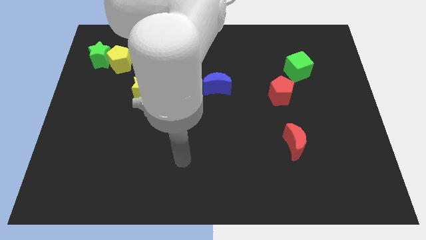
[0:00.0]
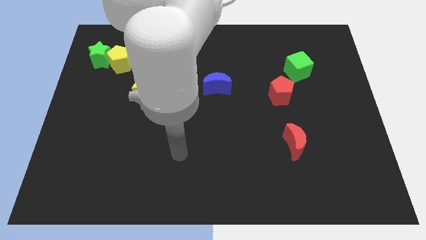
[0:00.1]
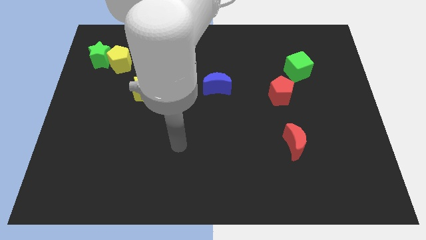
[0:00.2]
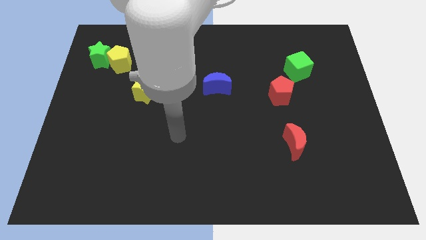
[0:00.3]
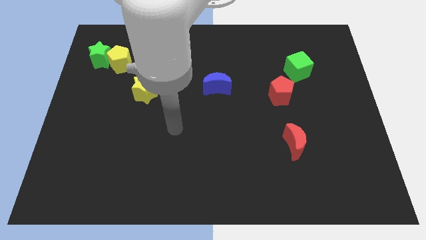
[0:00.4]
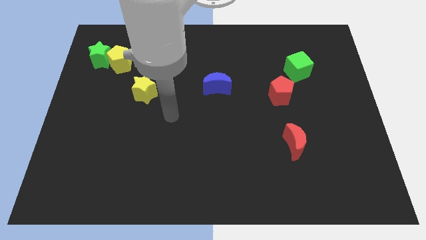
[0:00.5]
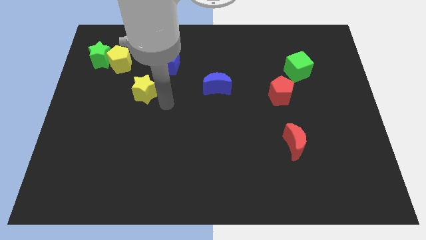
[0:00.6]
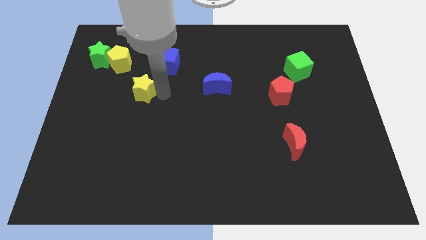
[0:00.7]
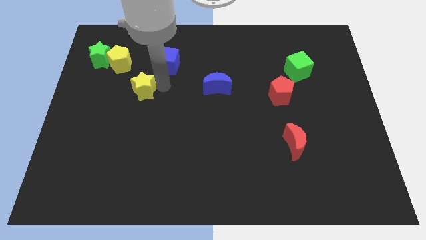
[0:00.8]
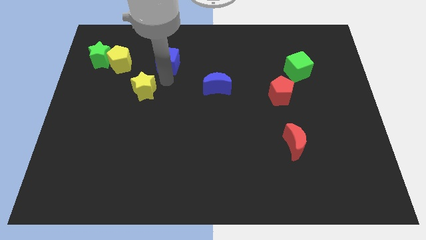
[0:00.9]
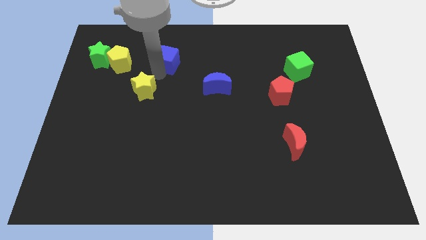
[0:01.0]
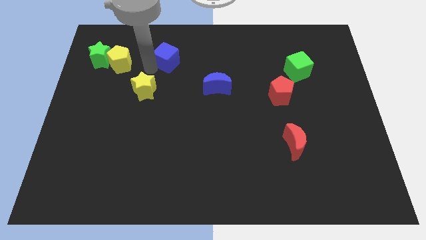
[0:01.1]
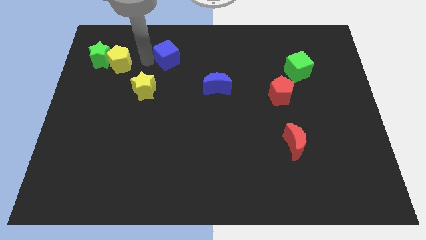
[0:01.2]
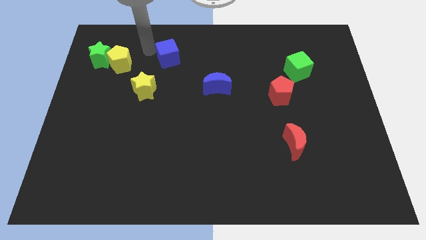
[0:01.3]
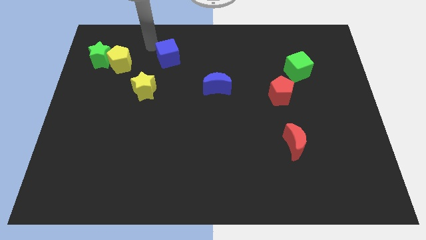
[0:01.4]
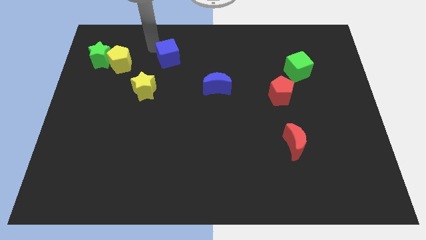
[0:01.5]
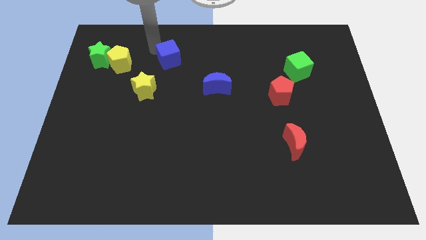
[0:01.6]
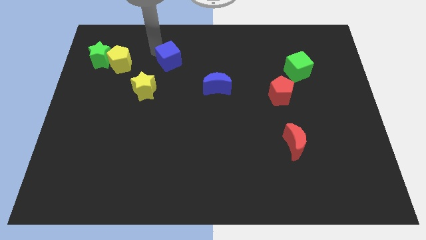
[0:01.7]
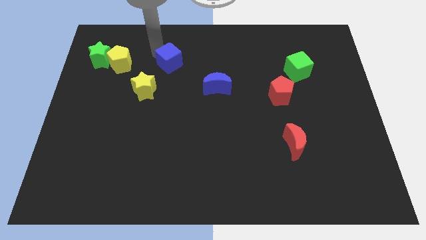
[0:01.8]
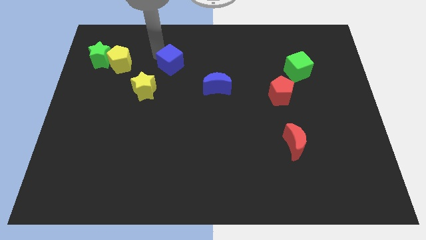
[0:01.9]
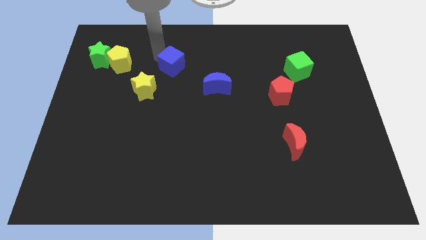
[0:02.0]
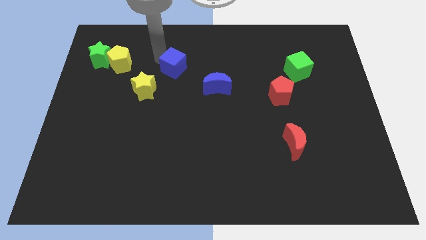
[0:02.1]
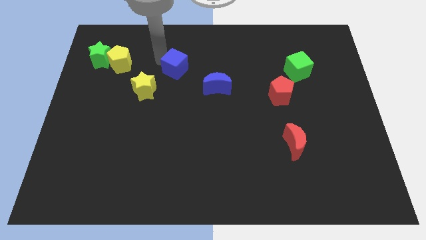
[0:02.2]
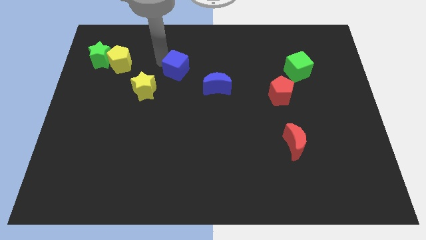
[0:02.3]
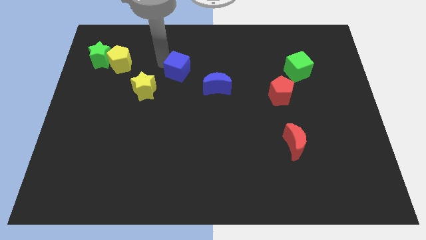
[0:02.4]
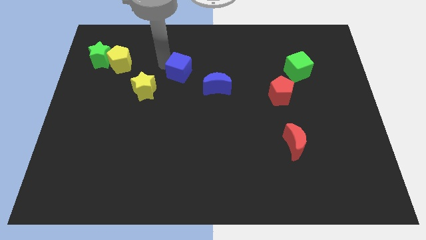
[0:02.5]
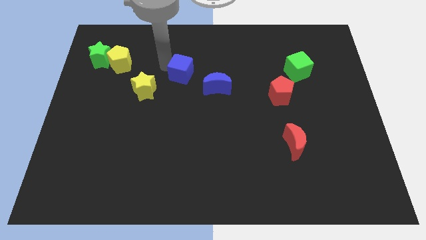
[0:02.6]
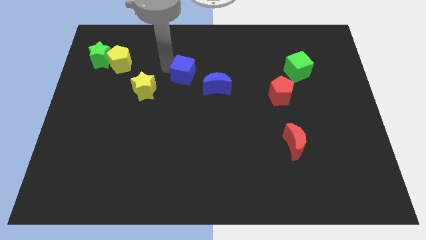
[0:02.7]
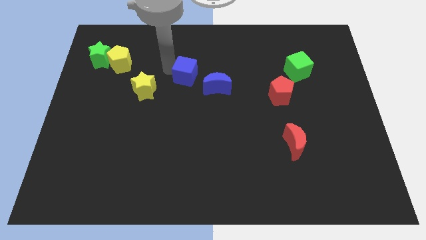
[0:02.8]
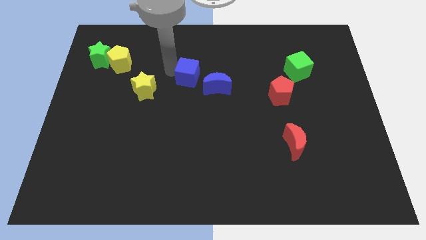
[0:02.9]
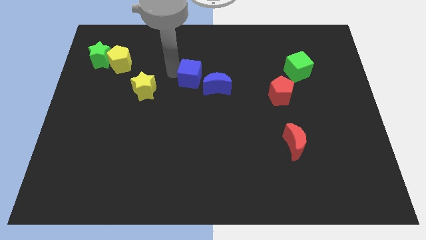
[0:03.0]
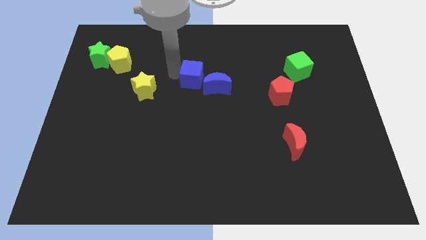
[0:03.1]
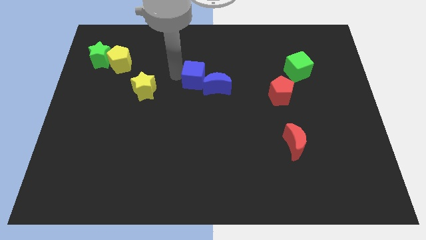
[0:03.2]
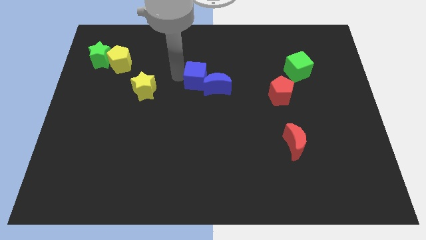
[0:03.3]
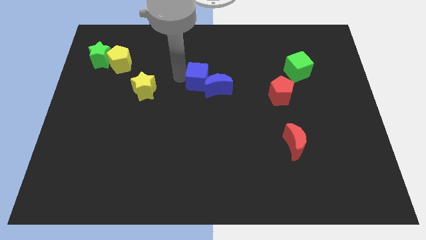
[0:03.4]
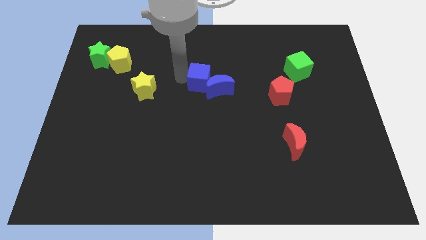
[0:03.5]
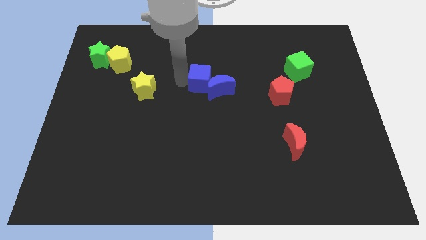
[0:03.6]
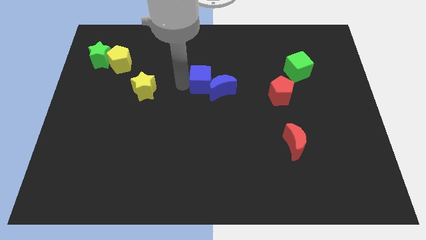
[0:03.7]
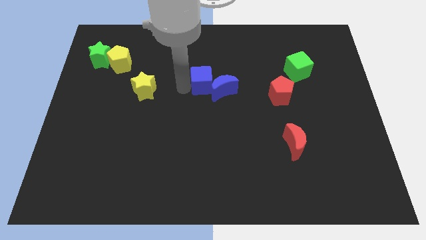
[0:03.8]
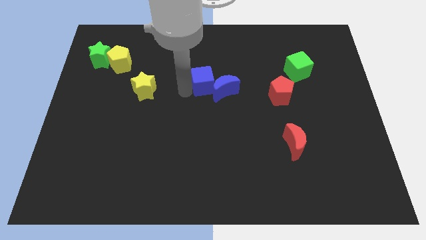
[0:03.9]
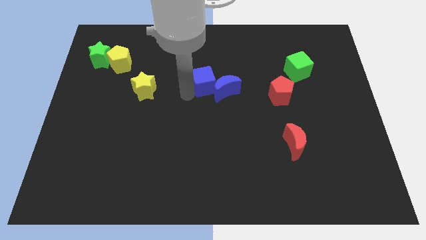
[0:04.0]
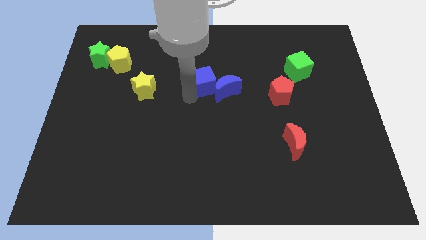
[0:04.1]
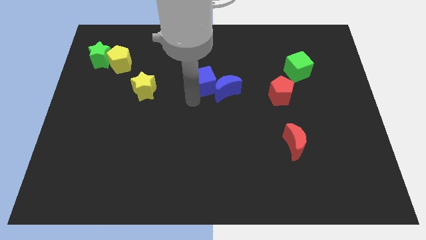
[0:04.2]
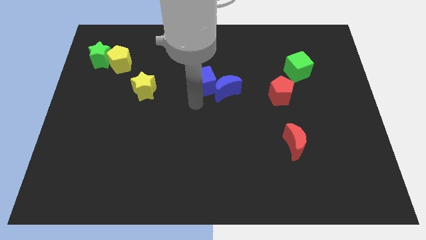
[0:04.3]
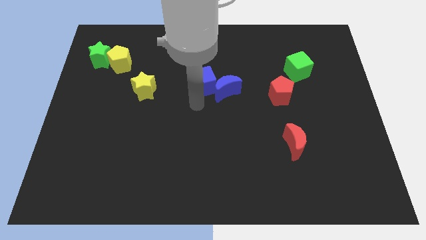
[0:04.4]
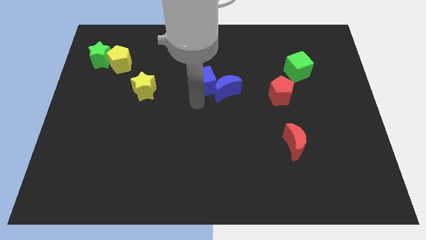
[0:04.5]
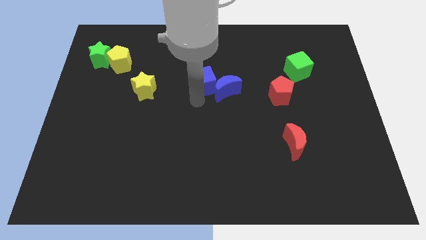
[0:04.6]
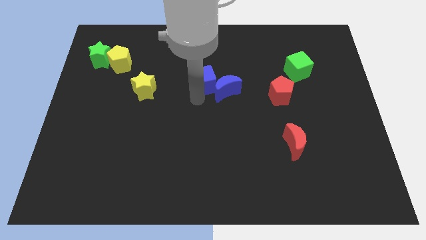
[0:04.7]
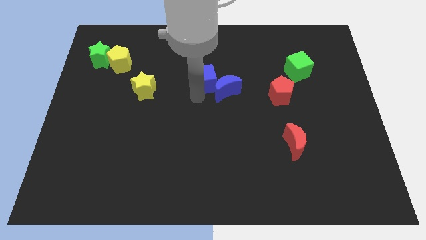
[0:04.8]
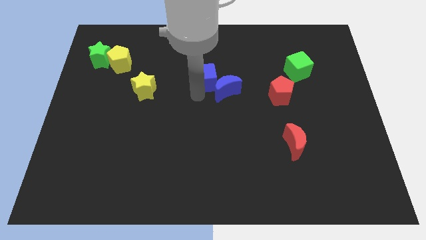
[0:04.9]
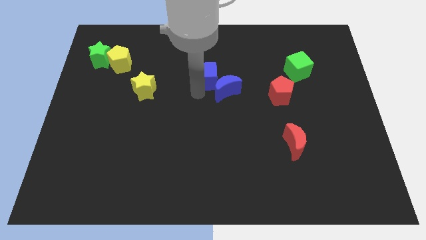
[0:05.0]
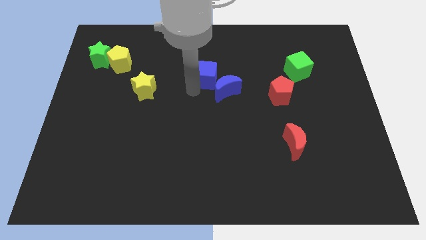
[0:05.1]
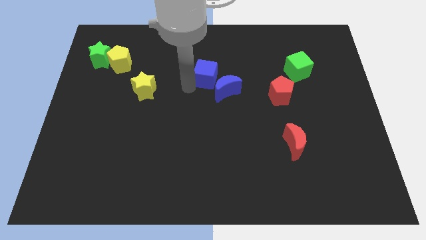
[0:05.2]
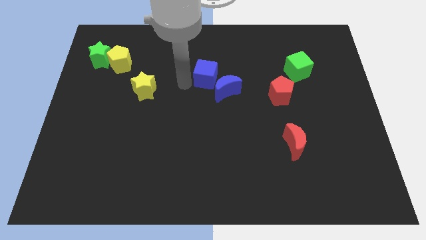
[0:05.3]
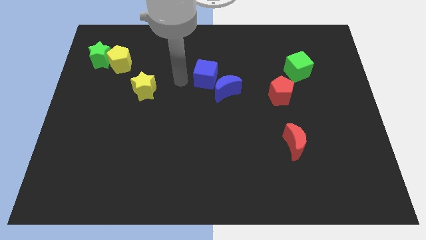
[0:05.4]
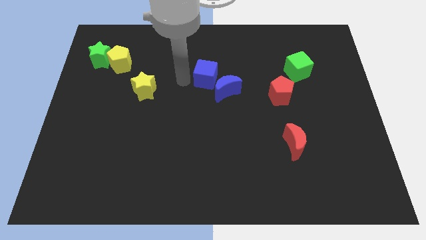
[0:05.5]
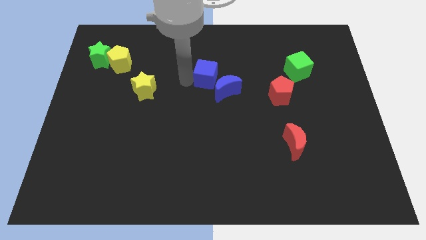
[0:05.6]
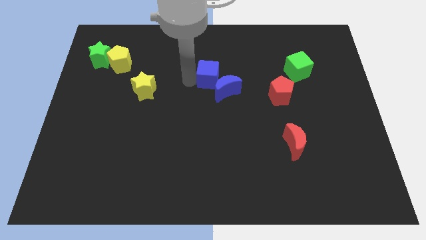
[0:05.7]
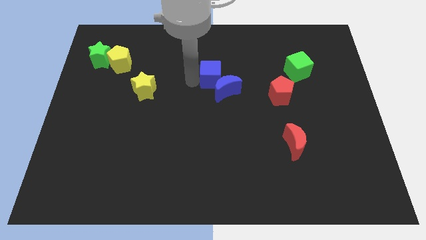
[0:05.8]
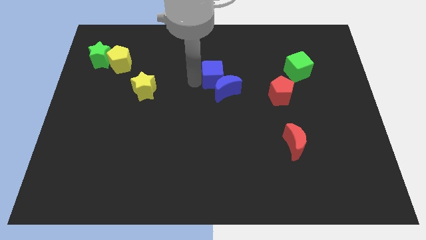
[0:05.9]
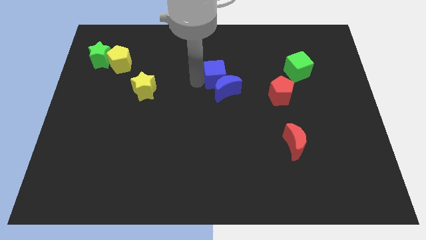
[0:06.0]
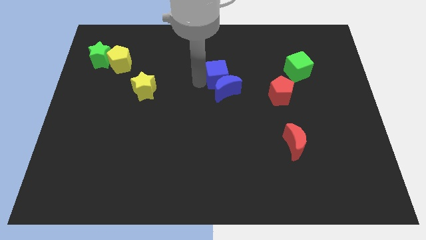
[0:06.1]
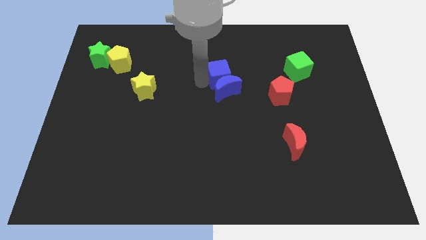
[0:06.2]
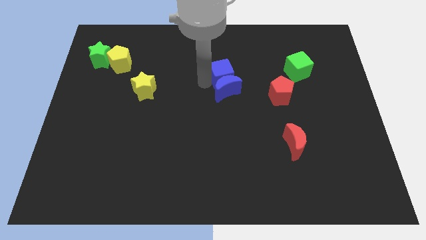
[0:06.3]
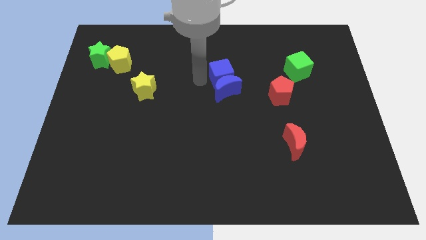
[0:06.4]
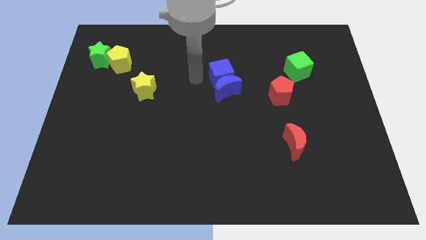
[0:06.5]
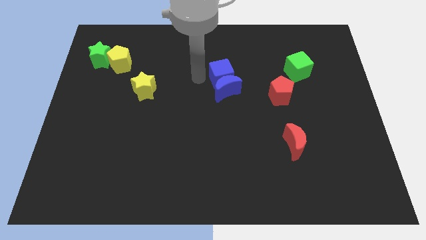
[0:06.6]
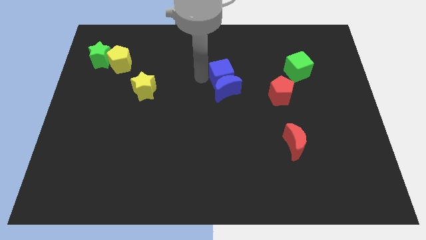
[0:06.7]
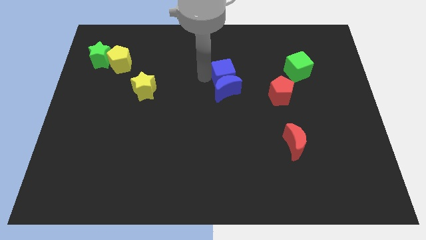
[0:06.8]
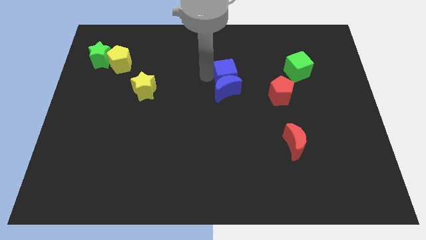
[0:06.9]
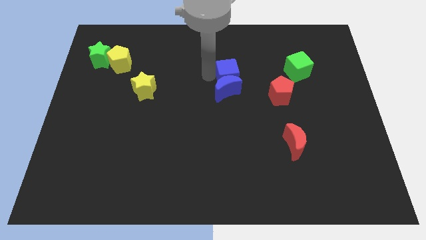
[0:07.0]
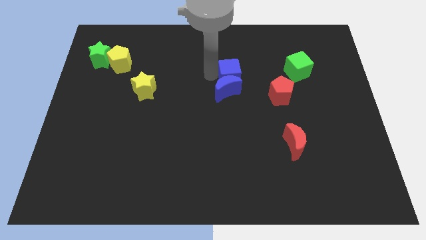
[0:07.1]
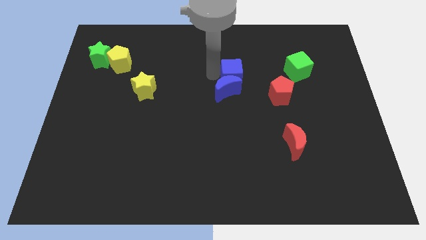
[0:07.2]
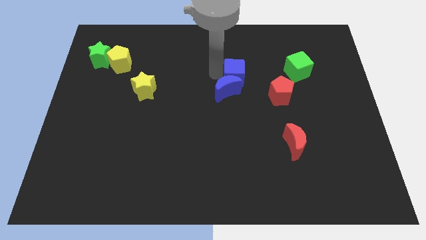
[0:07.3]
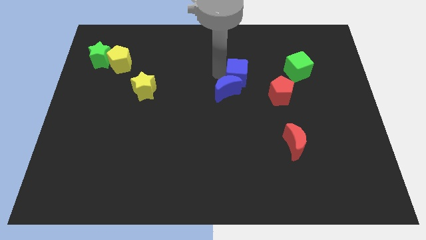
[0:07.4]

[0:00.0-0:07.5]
slide the blue cube to the top left side of the red pentagon
